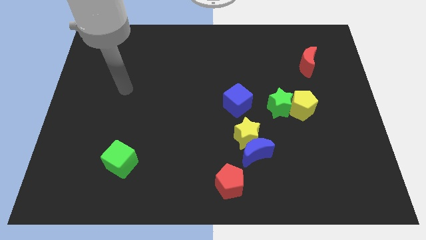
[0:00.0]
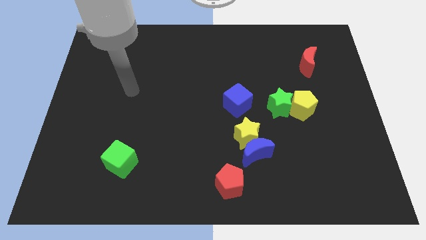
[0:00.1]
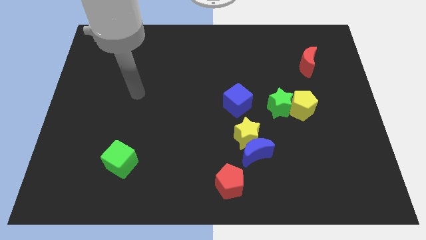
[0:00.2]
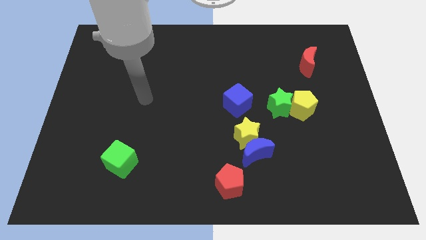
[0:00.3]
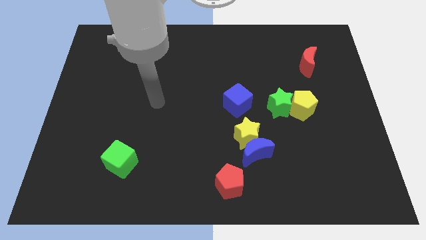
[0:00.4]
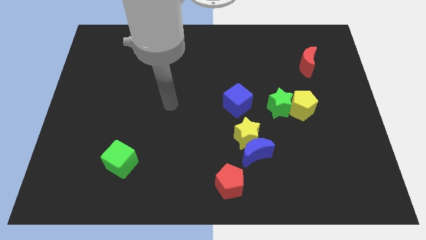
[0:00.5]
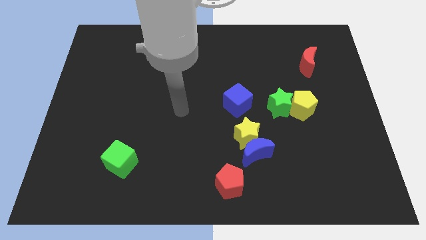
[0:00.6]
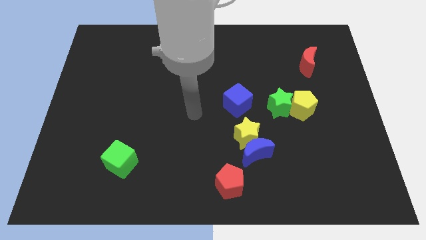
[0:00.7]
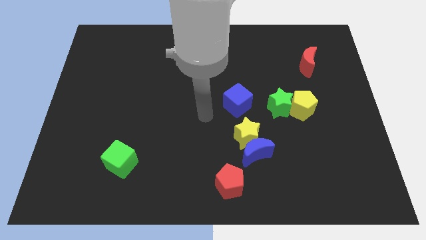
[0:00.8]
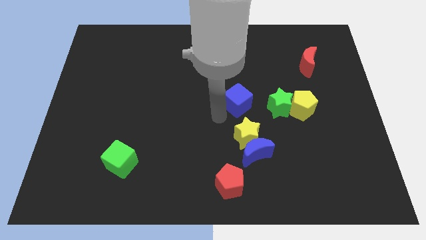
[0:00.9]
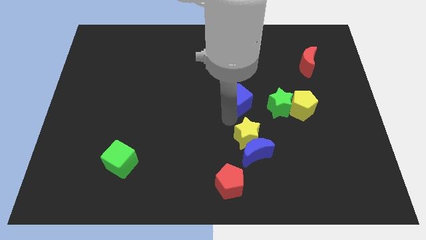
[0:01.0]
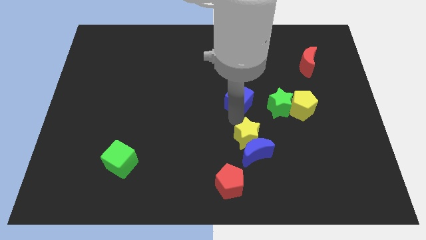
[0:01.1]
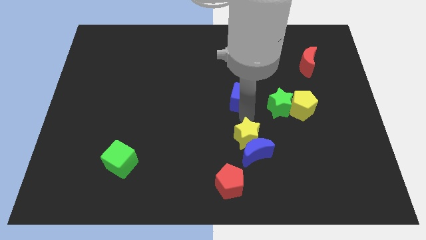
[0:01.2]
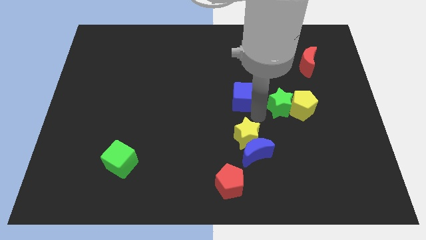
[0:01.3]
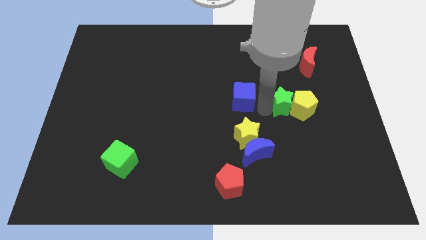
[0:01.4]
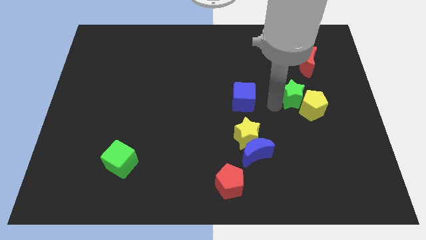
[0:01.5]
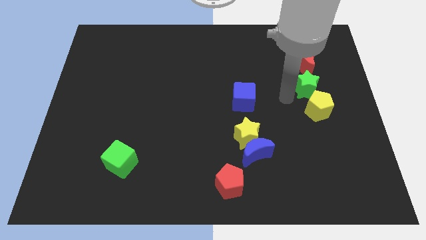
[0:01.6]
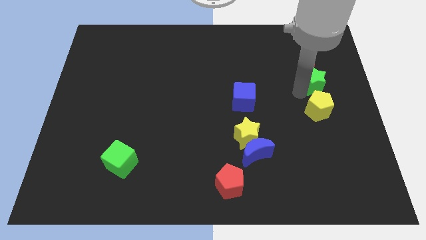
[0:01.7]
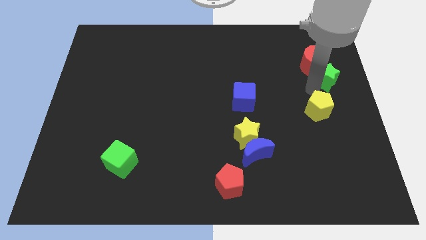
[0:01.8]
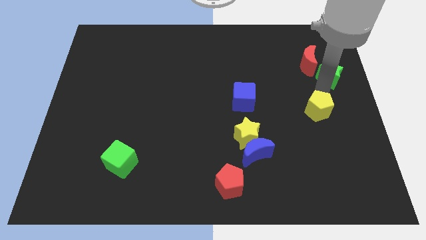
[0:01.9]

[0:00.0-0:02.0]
move the yellow pentagon away from the green star

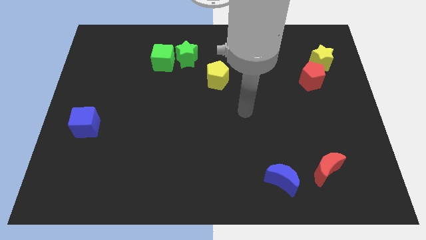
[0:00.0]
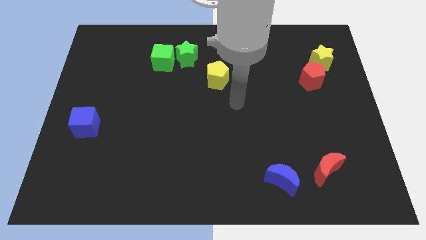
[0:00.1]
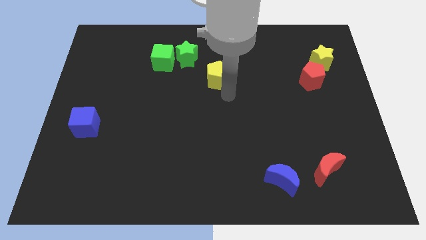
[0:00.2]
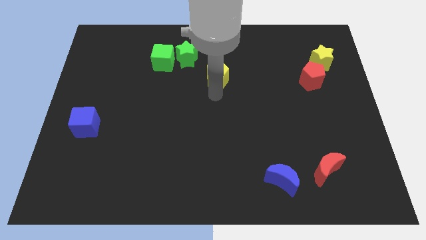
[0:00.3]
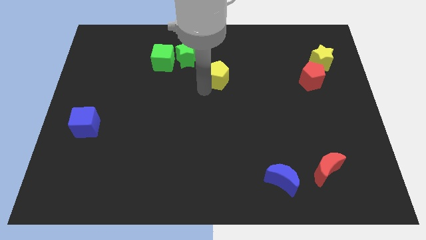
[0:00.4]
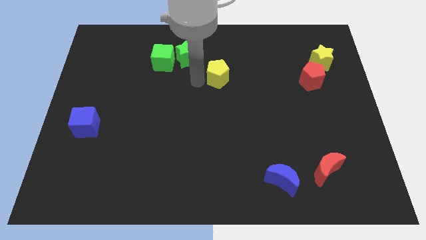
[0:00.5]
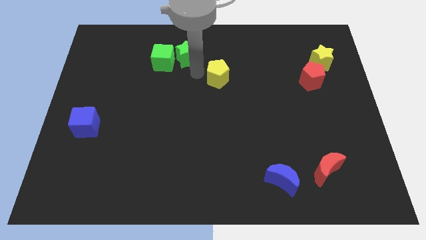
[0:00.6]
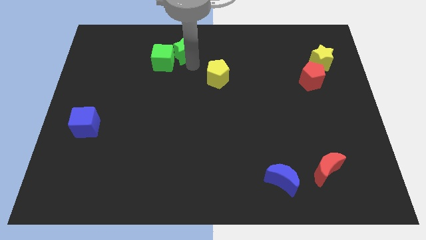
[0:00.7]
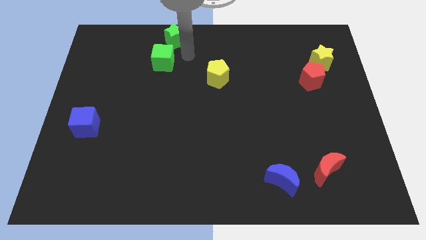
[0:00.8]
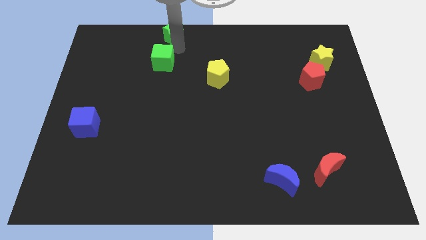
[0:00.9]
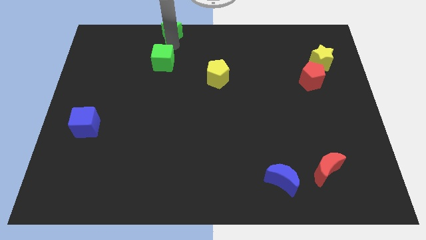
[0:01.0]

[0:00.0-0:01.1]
separate the green cube from the green star

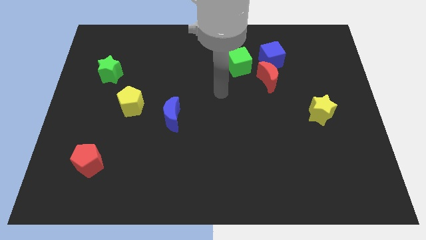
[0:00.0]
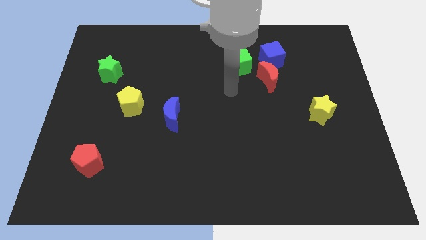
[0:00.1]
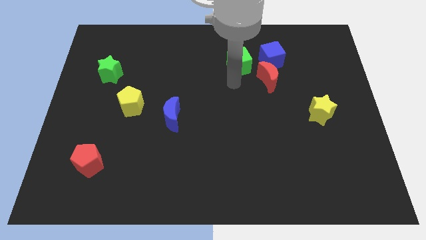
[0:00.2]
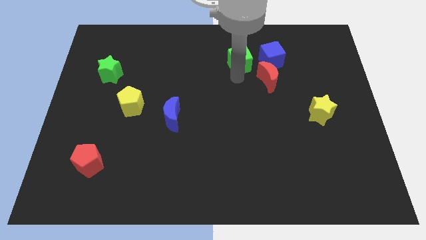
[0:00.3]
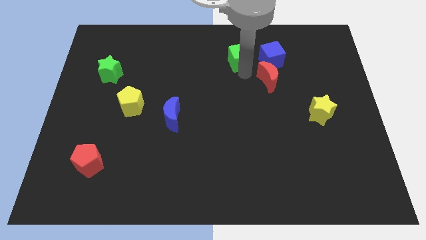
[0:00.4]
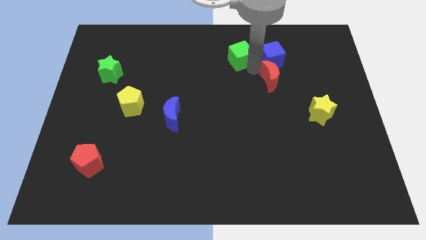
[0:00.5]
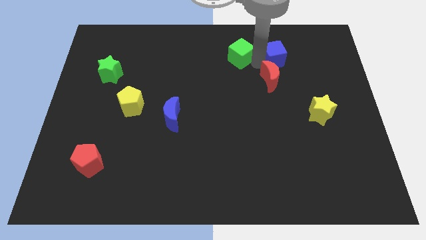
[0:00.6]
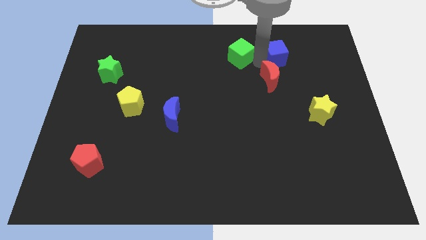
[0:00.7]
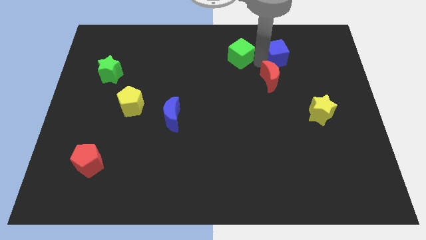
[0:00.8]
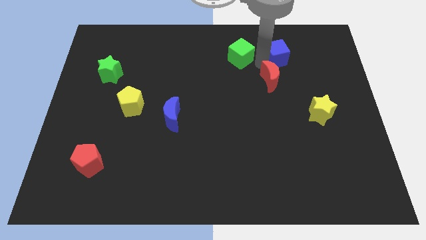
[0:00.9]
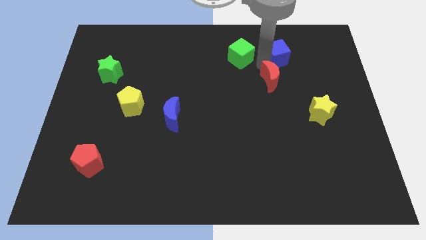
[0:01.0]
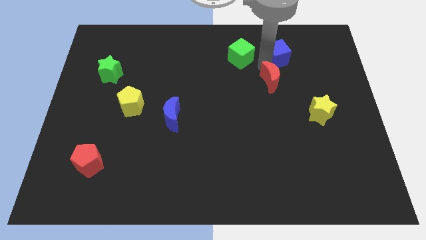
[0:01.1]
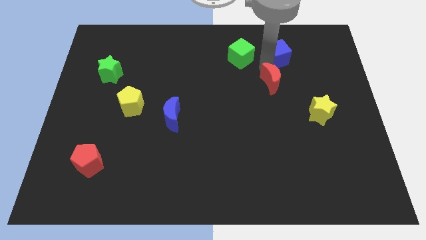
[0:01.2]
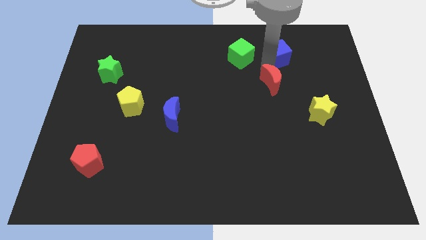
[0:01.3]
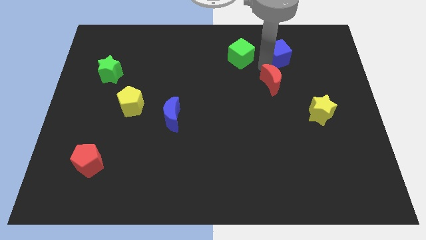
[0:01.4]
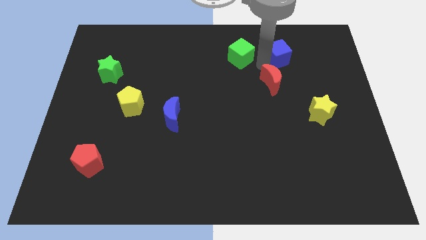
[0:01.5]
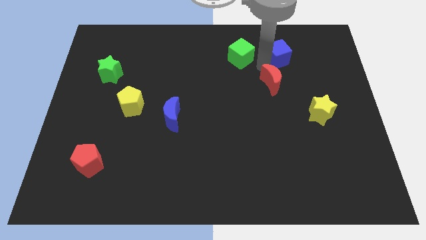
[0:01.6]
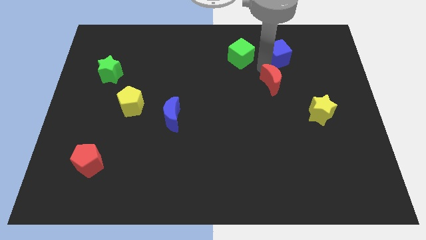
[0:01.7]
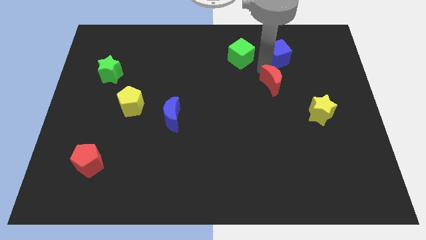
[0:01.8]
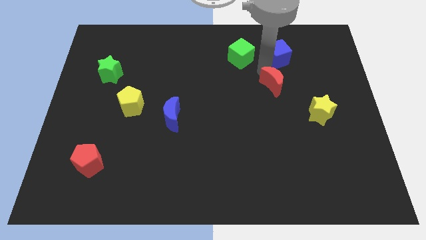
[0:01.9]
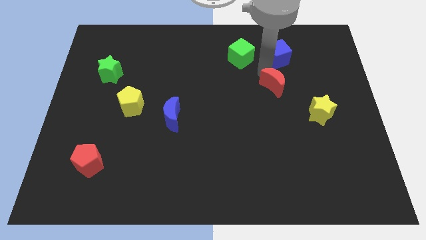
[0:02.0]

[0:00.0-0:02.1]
move the red moon away from the blue cube and green cube

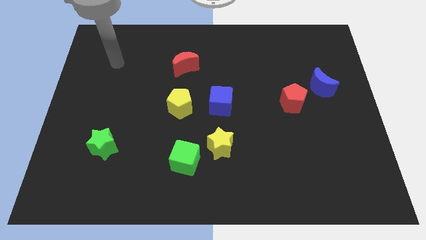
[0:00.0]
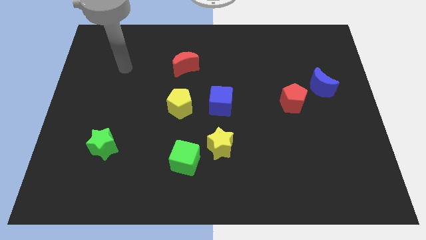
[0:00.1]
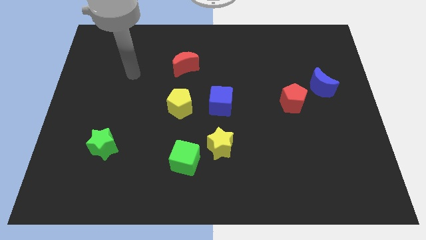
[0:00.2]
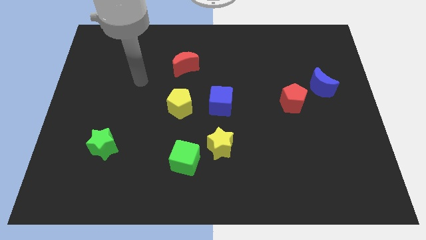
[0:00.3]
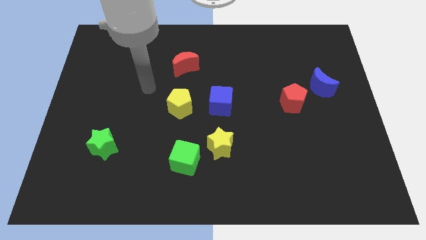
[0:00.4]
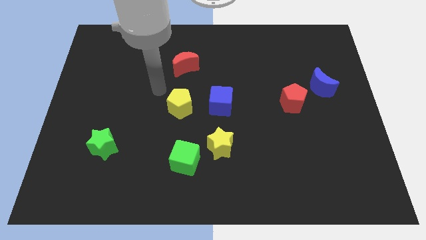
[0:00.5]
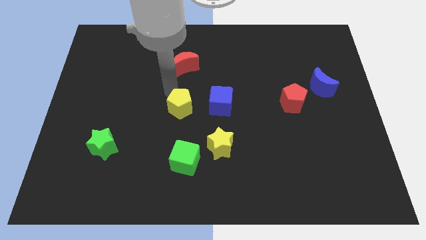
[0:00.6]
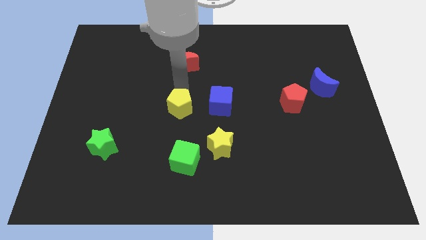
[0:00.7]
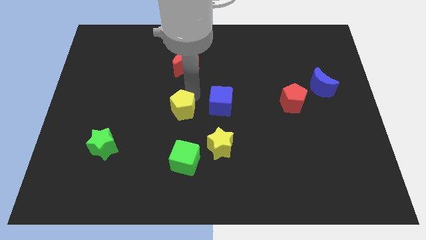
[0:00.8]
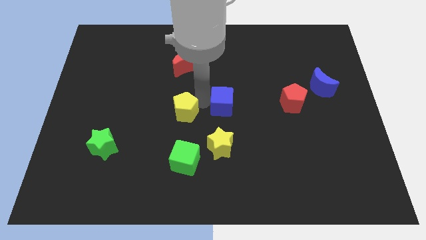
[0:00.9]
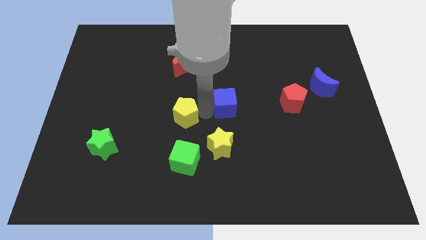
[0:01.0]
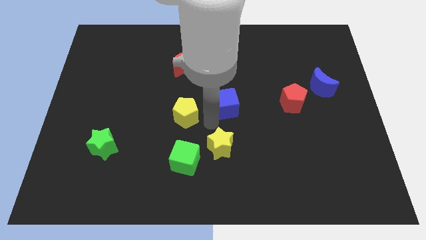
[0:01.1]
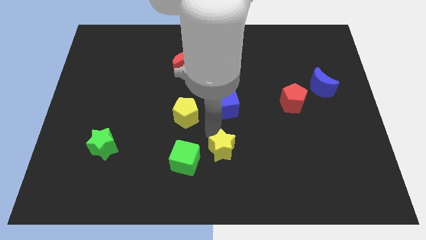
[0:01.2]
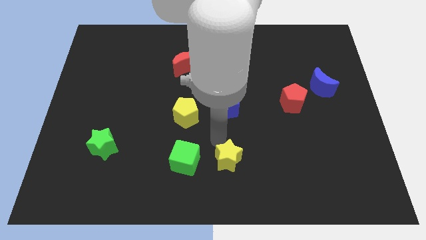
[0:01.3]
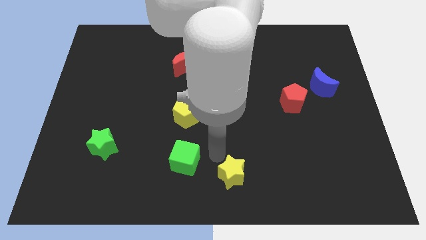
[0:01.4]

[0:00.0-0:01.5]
separate the green cube from the yellow star

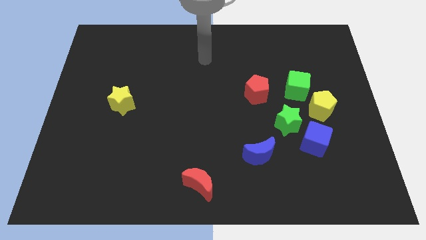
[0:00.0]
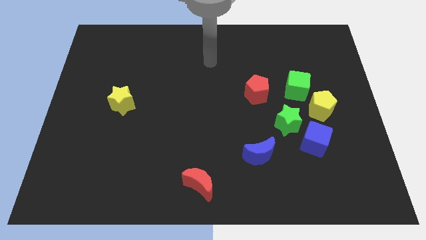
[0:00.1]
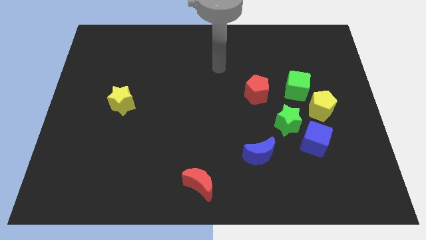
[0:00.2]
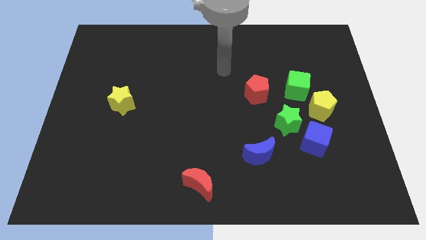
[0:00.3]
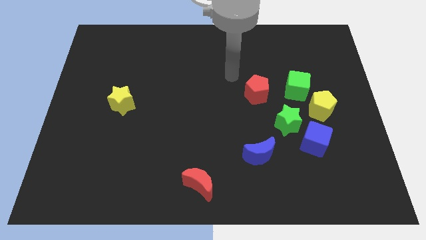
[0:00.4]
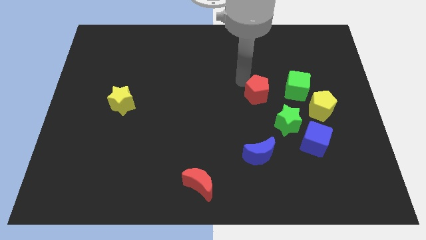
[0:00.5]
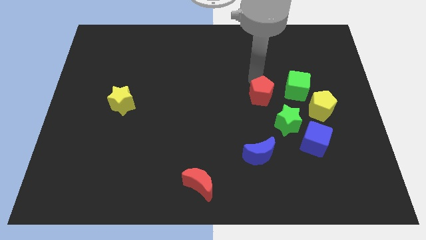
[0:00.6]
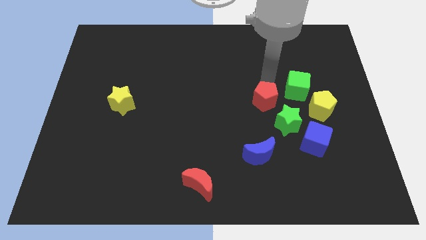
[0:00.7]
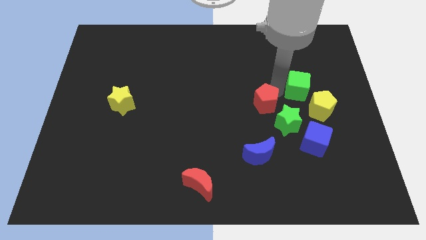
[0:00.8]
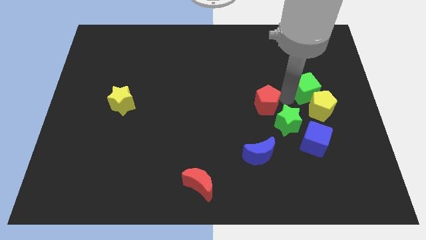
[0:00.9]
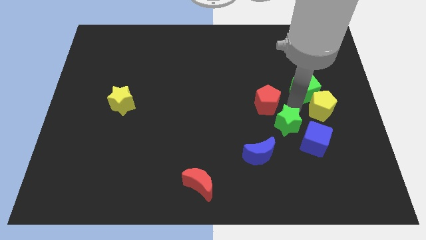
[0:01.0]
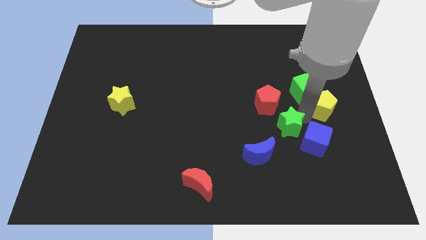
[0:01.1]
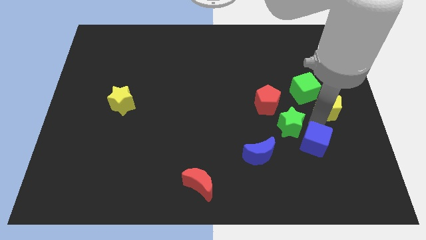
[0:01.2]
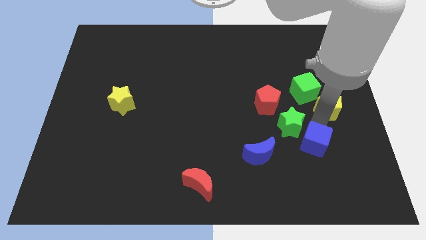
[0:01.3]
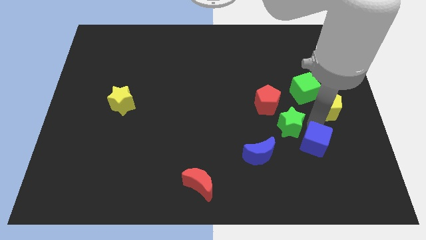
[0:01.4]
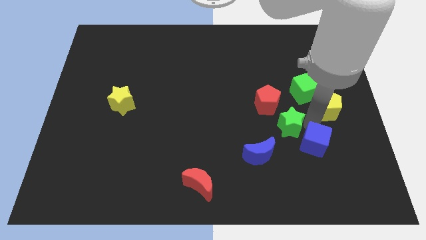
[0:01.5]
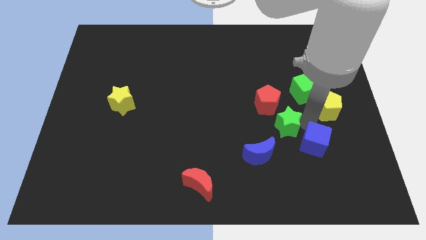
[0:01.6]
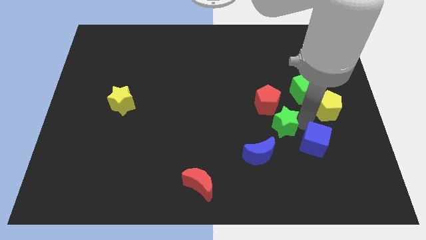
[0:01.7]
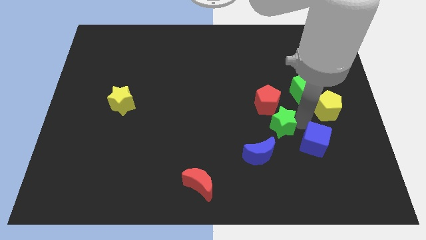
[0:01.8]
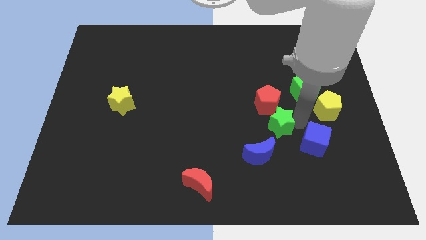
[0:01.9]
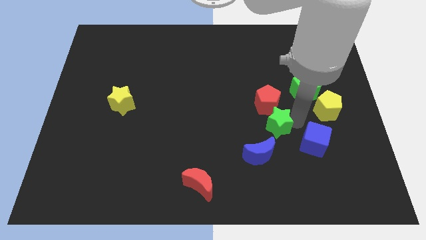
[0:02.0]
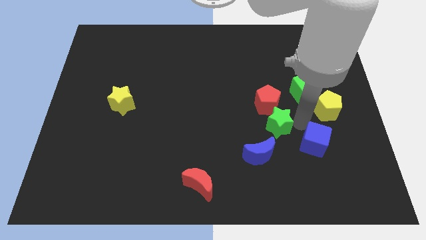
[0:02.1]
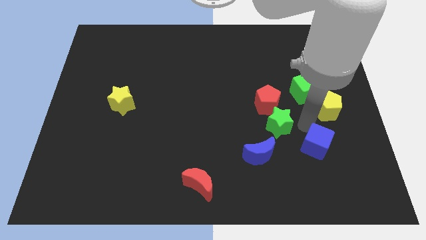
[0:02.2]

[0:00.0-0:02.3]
move the green star away from the blue cube and yellow pentagon

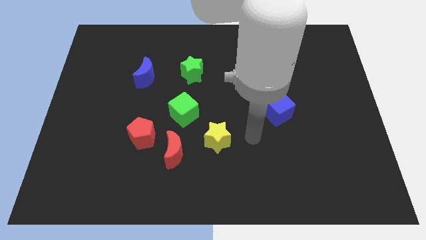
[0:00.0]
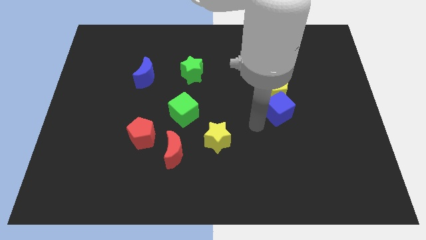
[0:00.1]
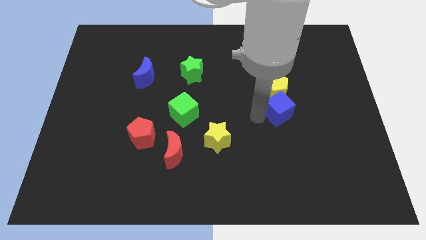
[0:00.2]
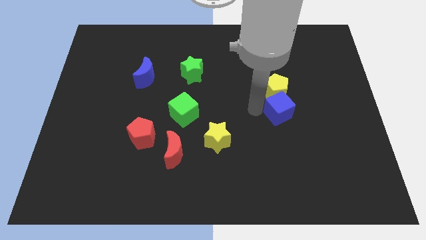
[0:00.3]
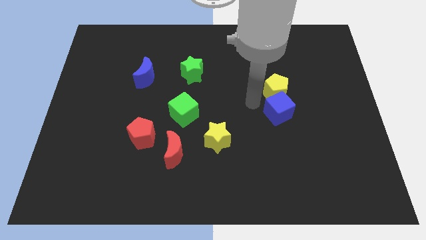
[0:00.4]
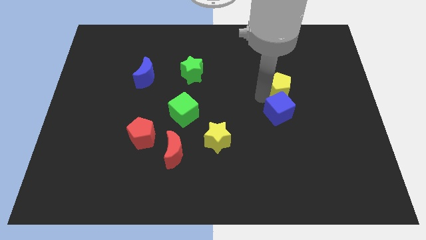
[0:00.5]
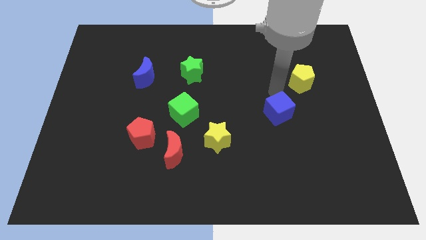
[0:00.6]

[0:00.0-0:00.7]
move the blue cube away from the yellow pentagon
